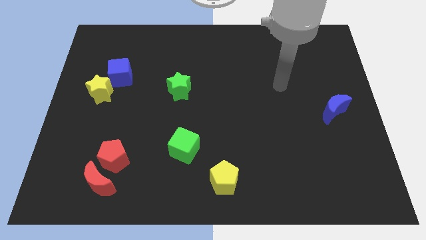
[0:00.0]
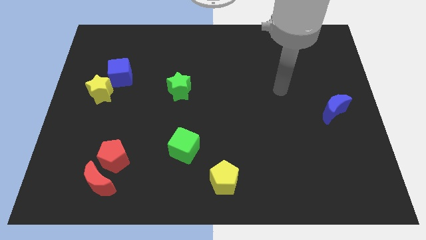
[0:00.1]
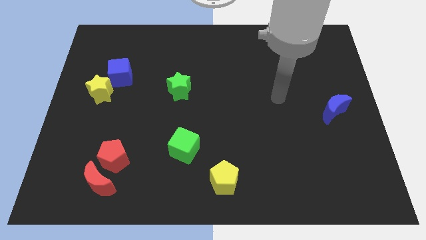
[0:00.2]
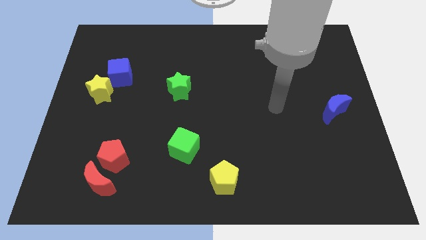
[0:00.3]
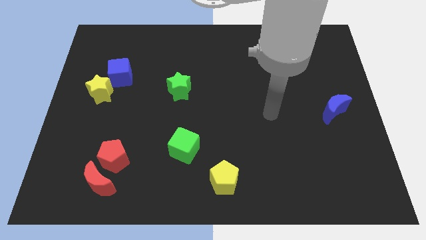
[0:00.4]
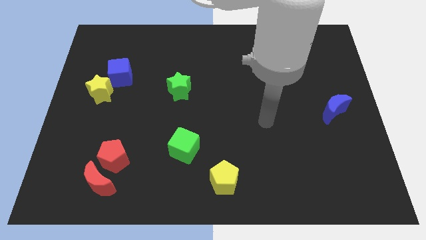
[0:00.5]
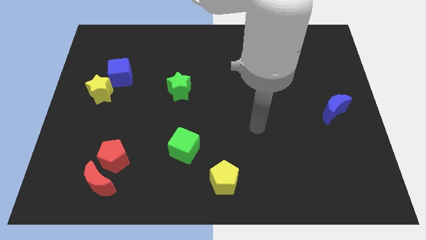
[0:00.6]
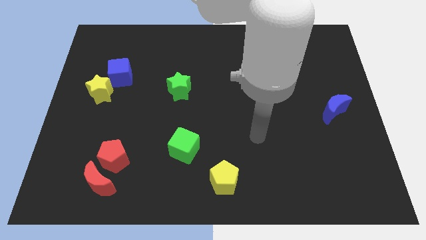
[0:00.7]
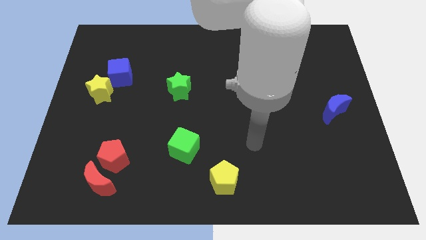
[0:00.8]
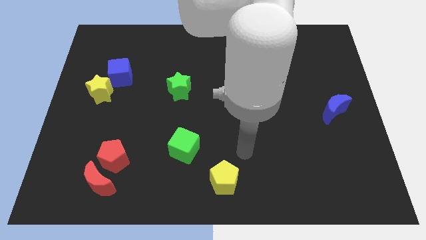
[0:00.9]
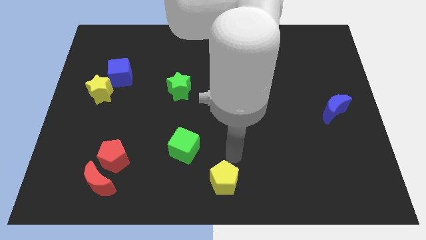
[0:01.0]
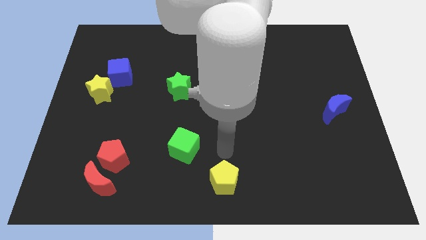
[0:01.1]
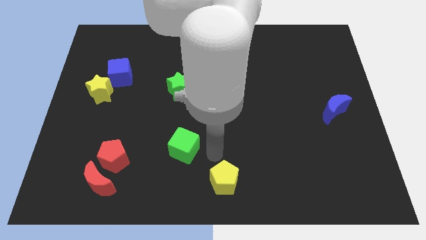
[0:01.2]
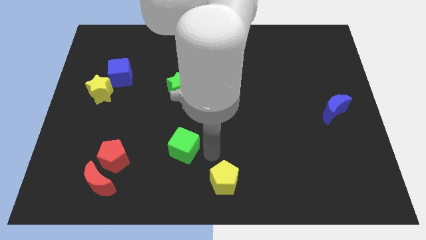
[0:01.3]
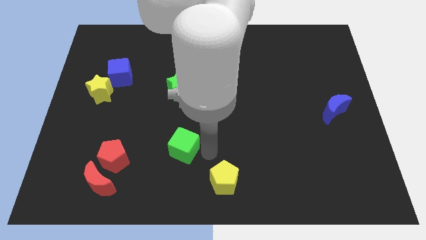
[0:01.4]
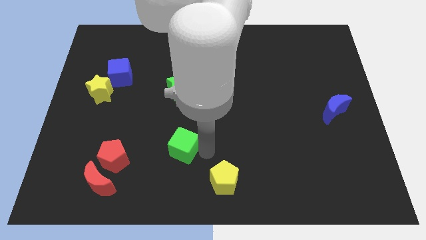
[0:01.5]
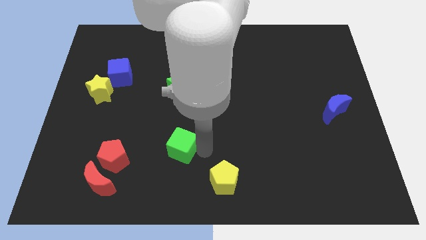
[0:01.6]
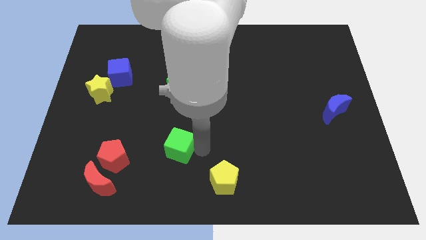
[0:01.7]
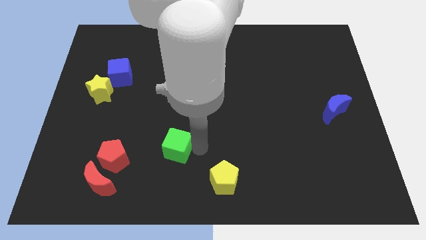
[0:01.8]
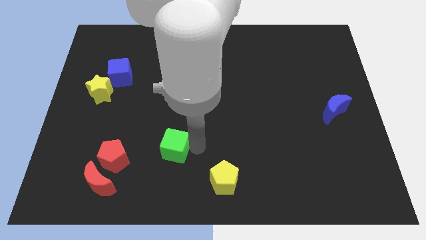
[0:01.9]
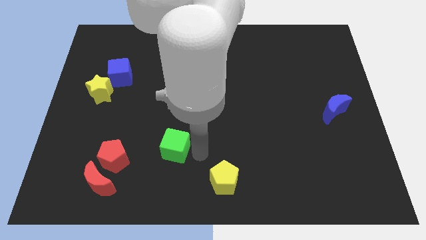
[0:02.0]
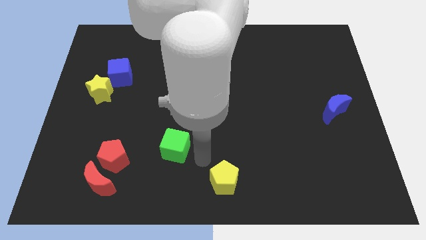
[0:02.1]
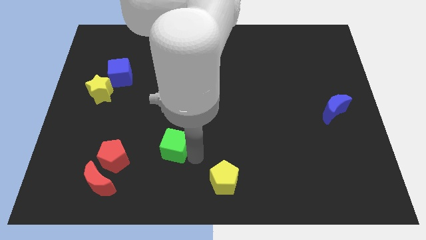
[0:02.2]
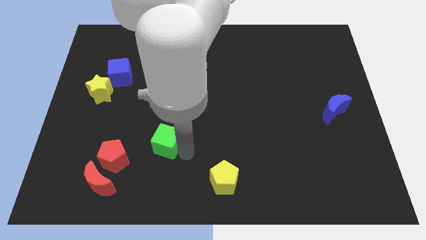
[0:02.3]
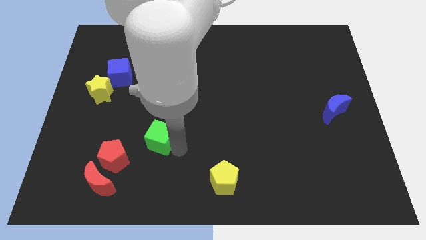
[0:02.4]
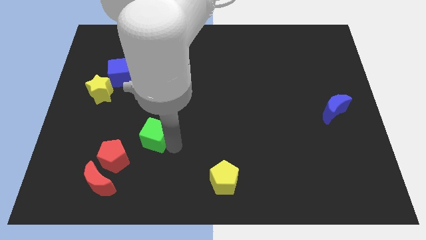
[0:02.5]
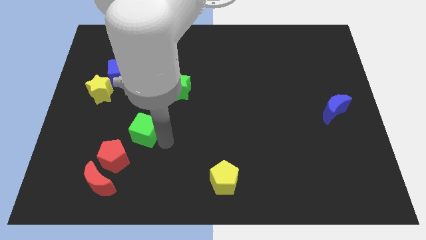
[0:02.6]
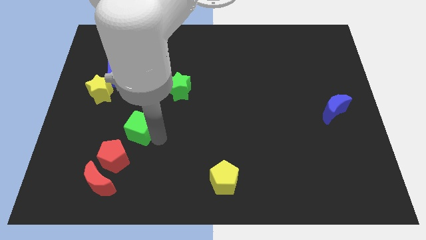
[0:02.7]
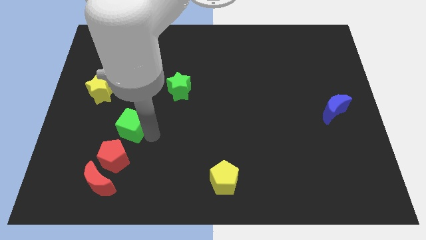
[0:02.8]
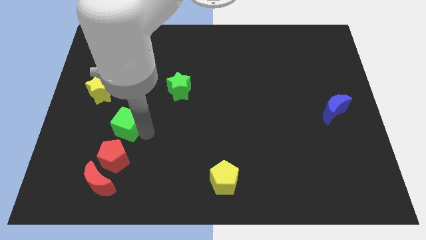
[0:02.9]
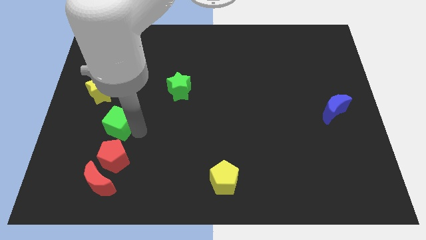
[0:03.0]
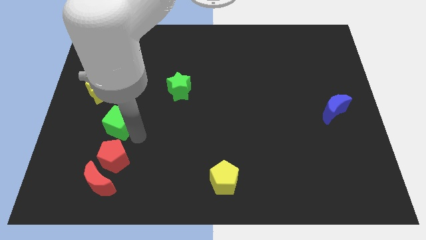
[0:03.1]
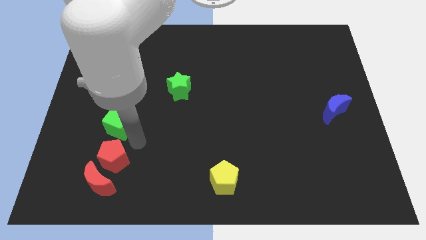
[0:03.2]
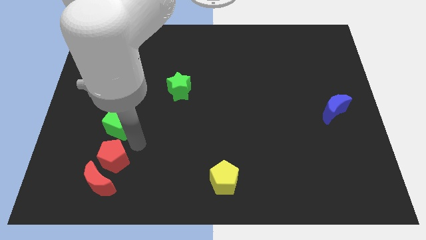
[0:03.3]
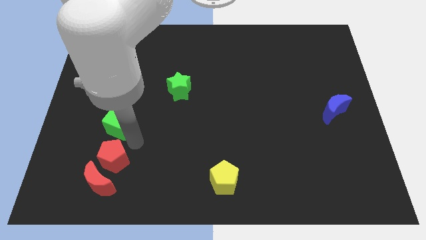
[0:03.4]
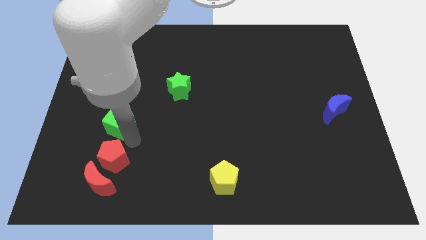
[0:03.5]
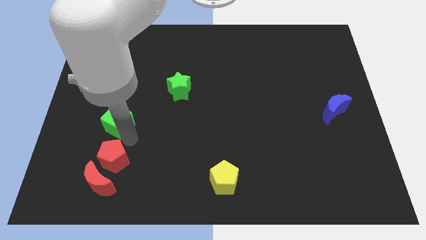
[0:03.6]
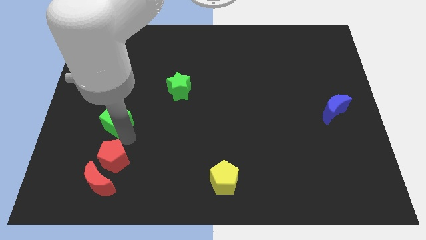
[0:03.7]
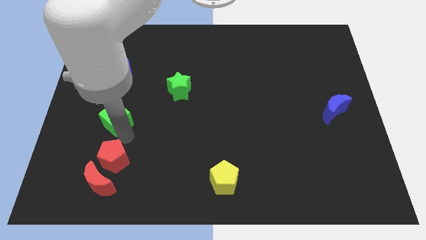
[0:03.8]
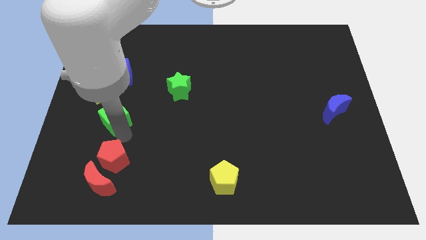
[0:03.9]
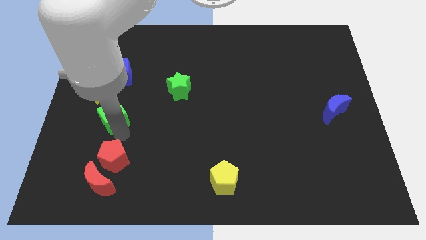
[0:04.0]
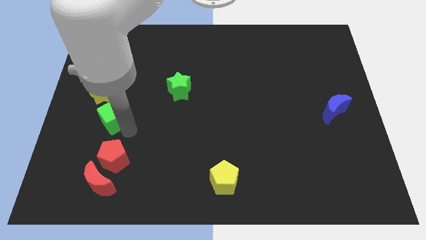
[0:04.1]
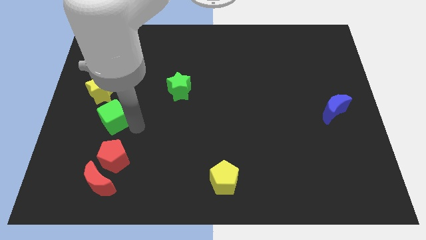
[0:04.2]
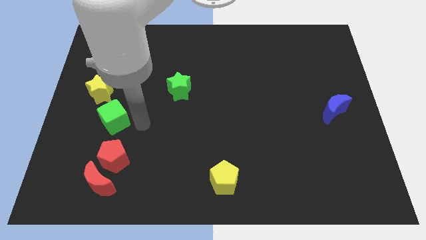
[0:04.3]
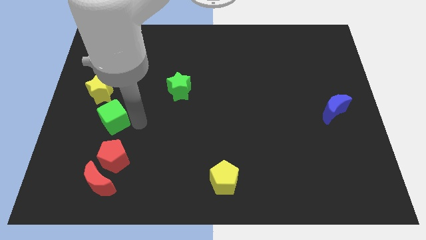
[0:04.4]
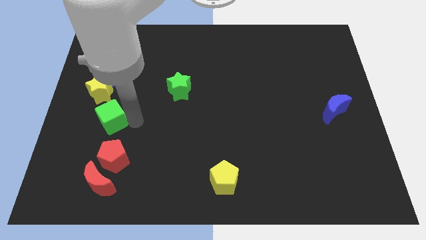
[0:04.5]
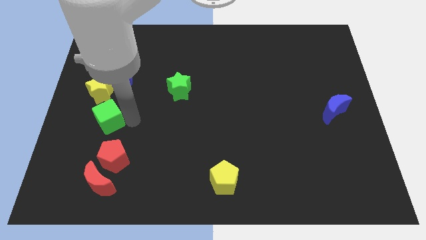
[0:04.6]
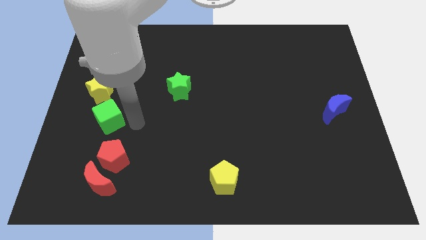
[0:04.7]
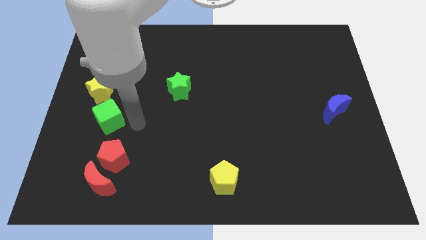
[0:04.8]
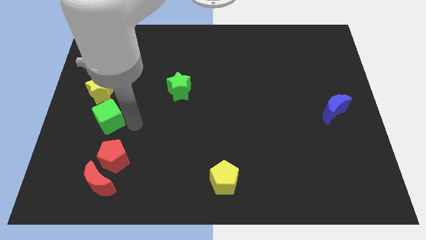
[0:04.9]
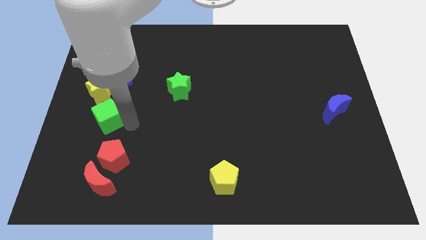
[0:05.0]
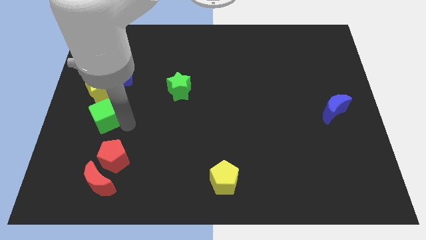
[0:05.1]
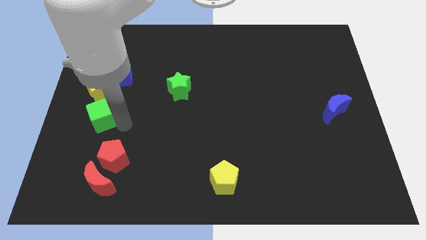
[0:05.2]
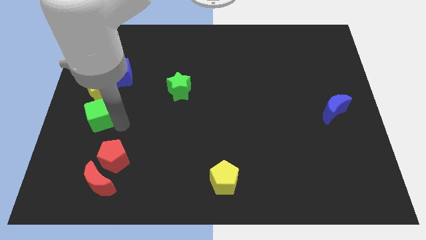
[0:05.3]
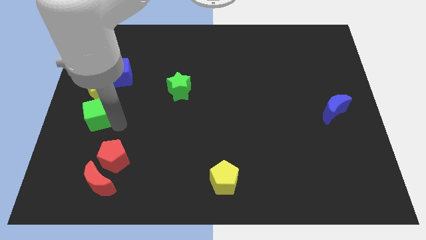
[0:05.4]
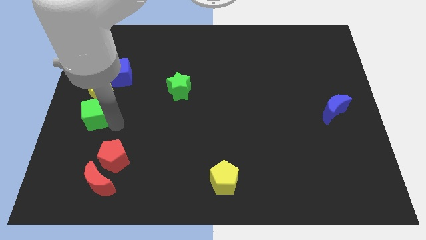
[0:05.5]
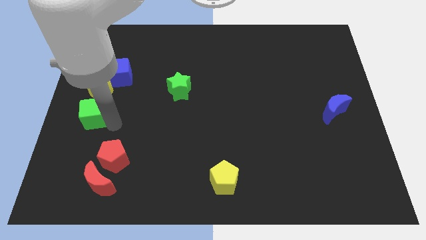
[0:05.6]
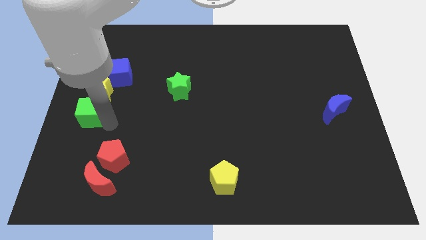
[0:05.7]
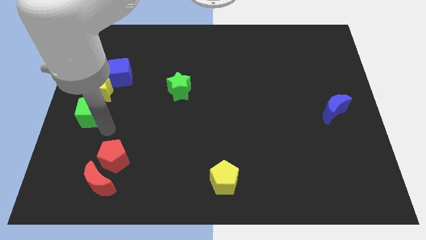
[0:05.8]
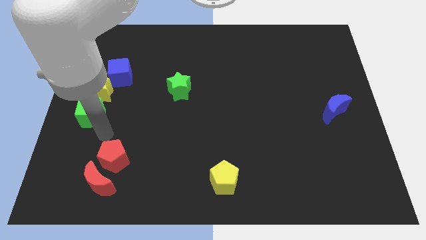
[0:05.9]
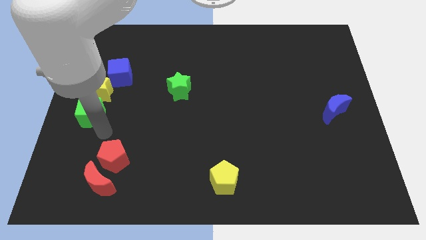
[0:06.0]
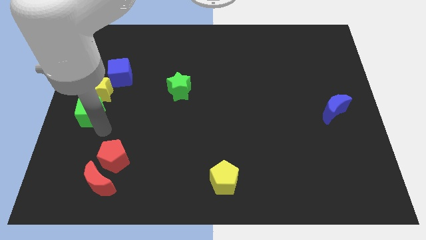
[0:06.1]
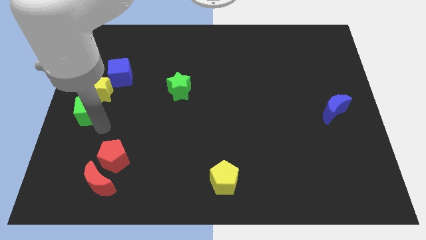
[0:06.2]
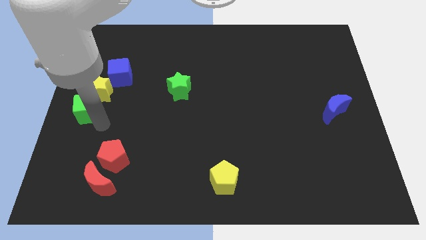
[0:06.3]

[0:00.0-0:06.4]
move the green cube up and left

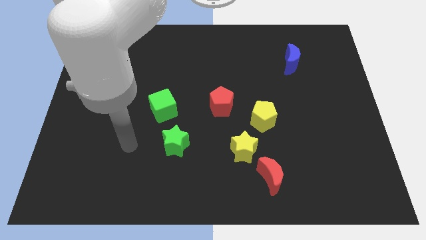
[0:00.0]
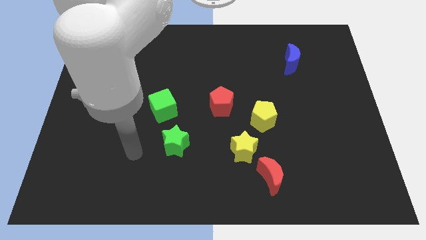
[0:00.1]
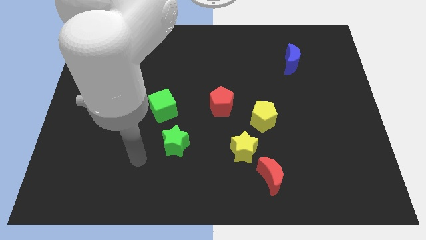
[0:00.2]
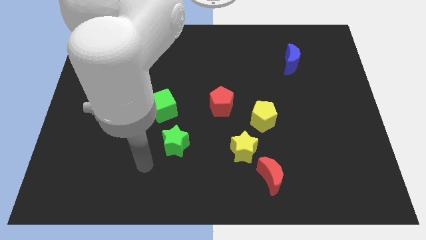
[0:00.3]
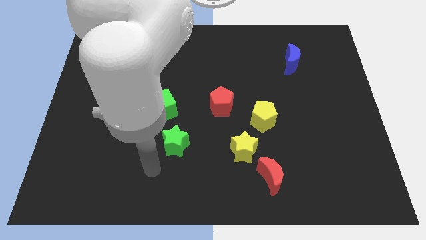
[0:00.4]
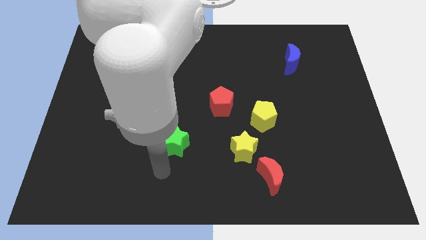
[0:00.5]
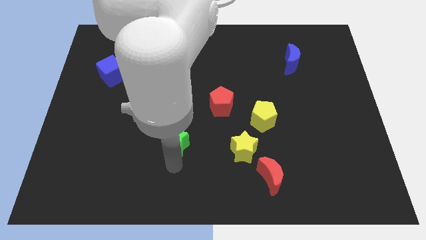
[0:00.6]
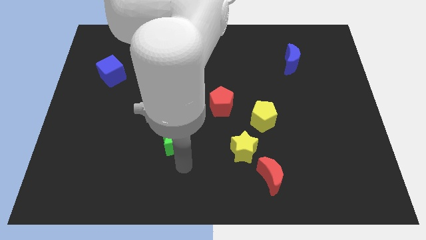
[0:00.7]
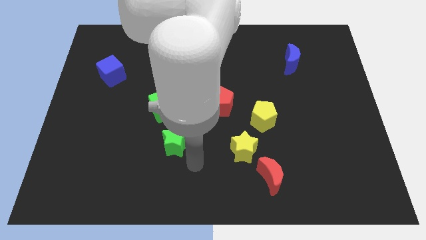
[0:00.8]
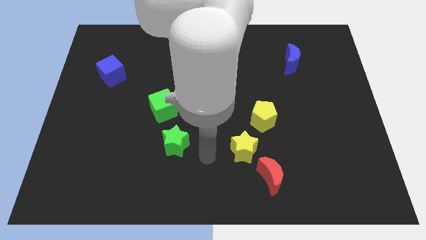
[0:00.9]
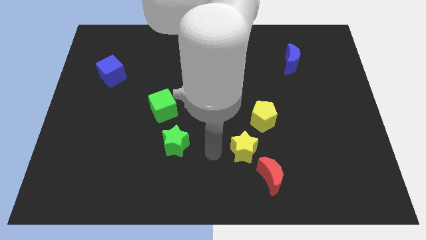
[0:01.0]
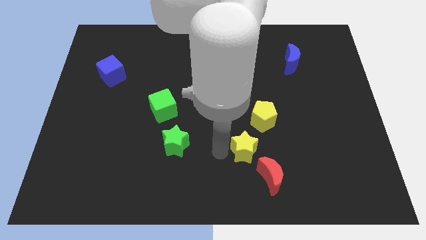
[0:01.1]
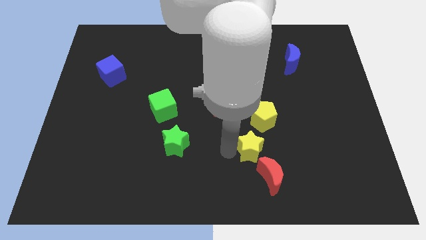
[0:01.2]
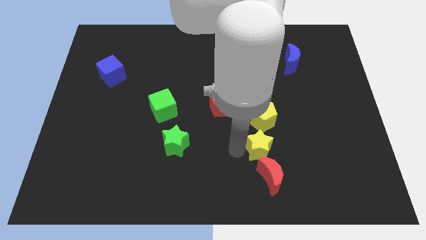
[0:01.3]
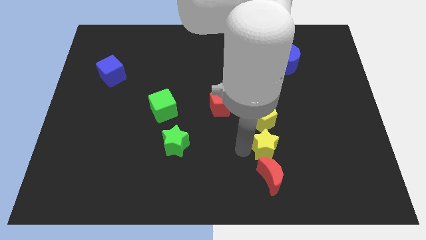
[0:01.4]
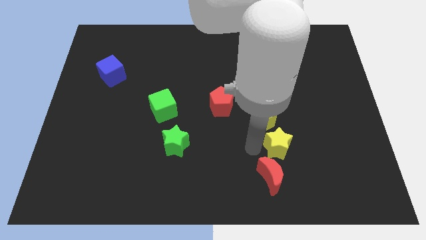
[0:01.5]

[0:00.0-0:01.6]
slide the yellow star a little bit right
